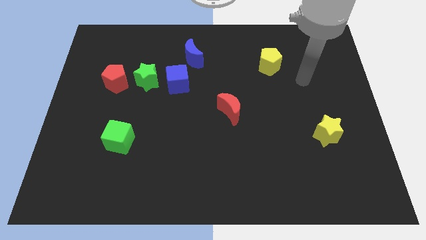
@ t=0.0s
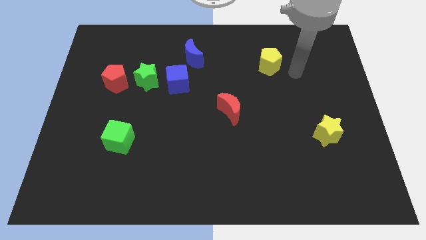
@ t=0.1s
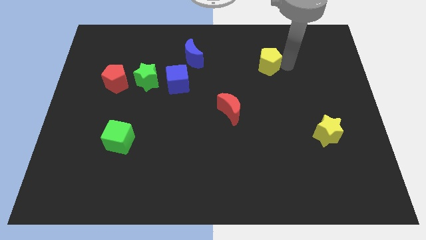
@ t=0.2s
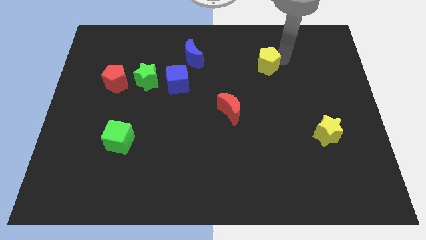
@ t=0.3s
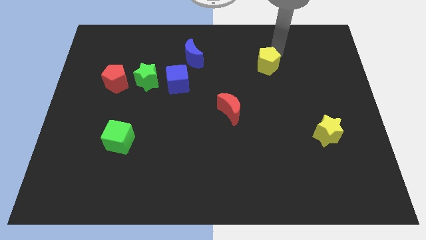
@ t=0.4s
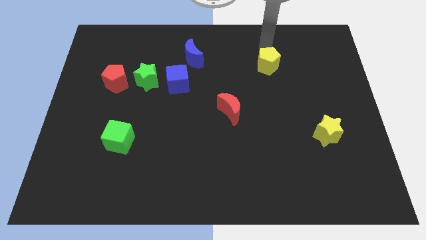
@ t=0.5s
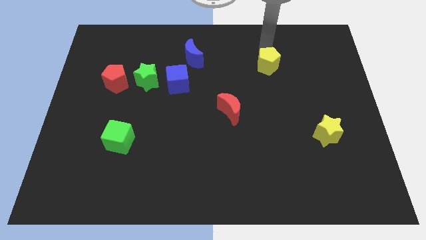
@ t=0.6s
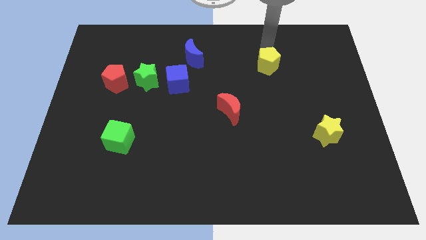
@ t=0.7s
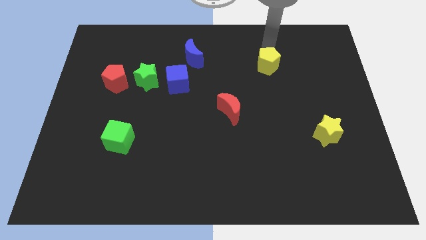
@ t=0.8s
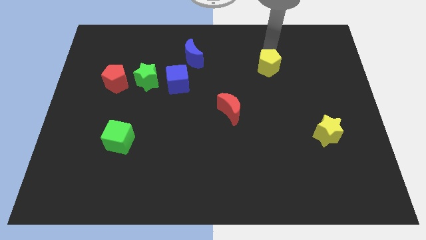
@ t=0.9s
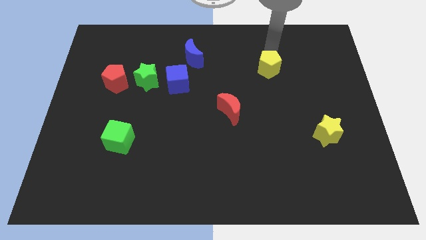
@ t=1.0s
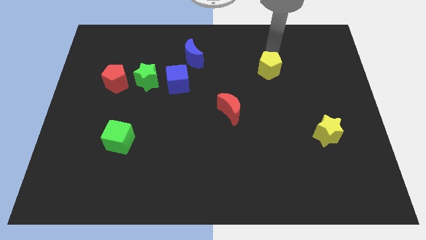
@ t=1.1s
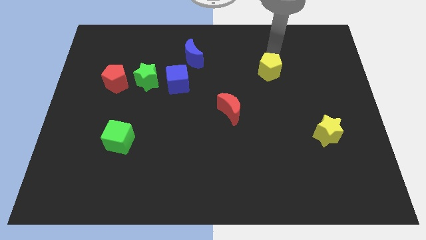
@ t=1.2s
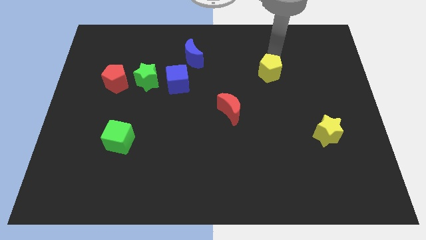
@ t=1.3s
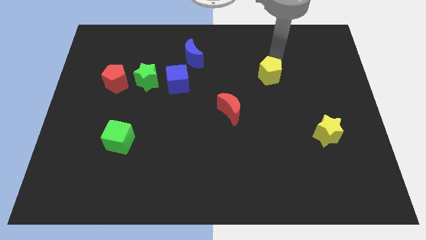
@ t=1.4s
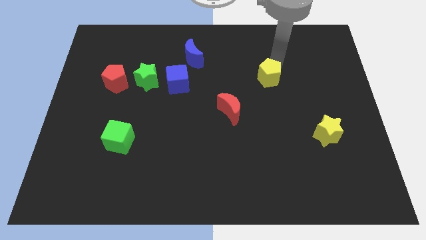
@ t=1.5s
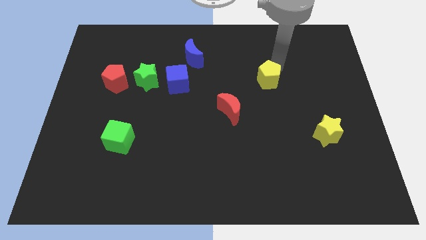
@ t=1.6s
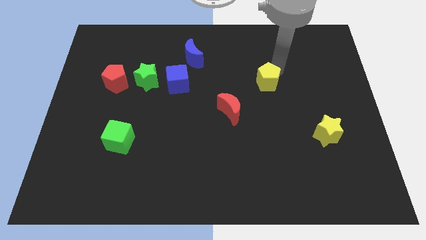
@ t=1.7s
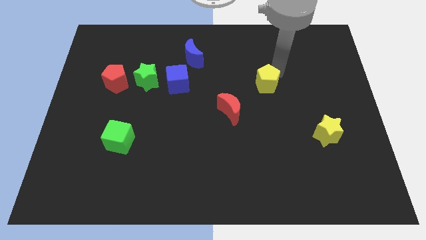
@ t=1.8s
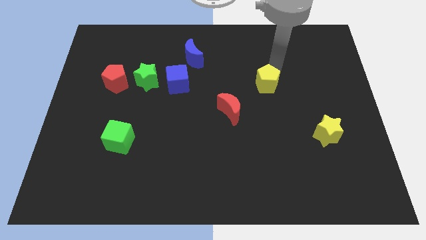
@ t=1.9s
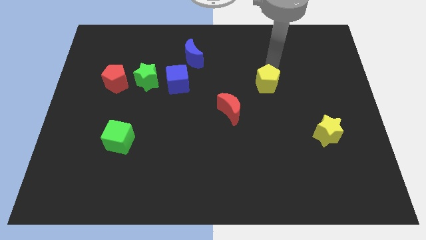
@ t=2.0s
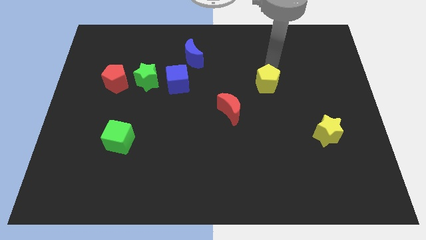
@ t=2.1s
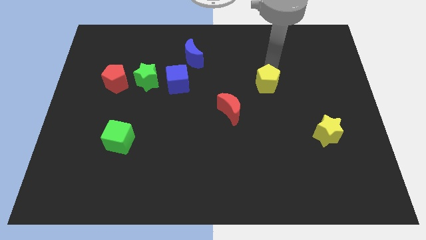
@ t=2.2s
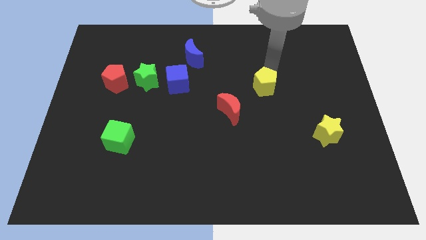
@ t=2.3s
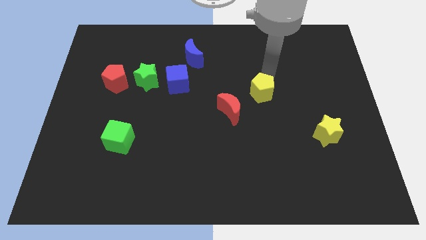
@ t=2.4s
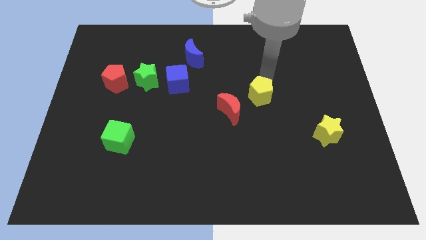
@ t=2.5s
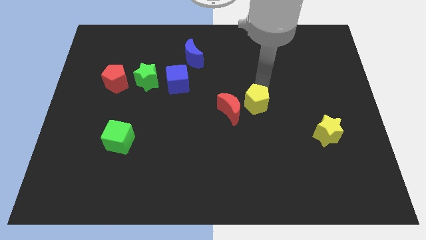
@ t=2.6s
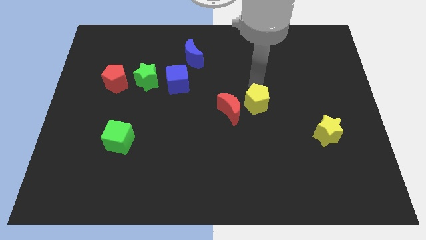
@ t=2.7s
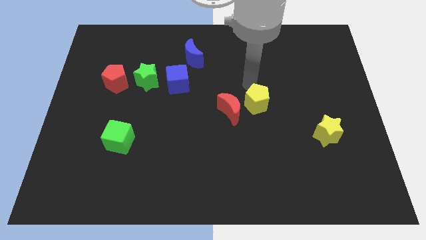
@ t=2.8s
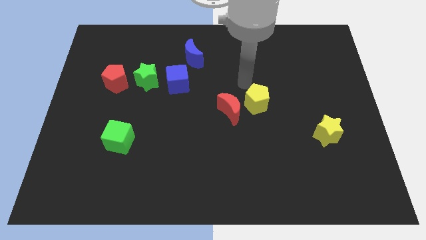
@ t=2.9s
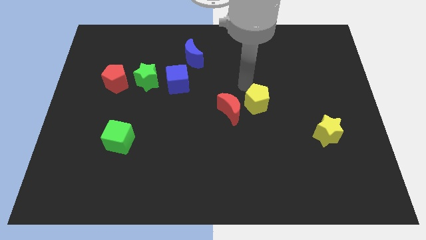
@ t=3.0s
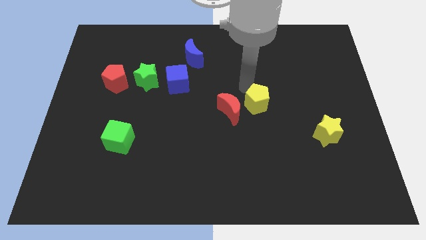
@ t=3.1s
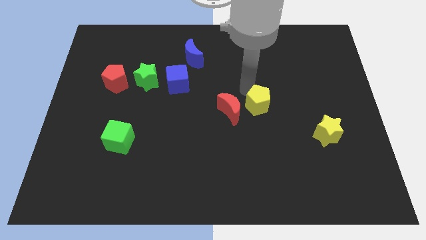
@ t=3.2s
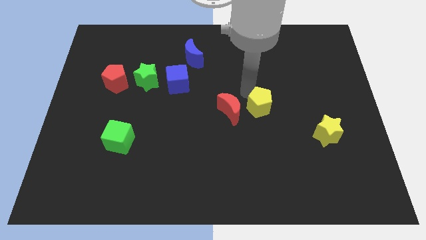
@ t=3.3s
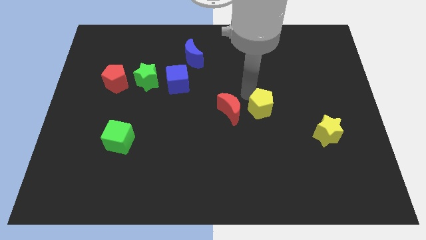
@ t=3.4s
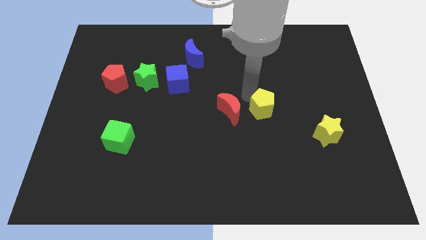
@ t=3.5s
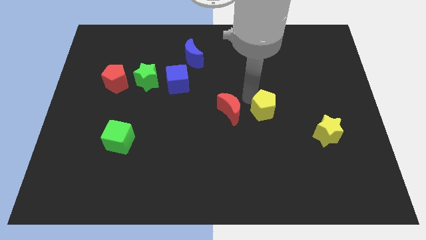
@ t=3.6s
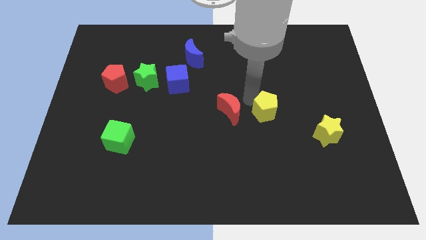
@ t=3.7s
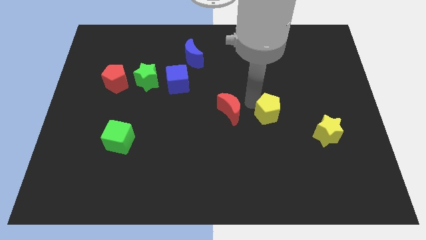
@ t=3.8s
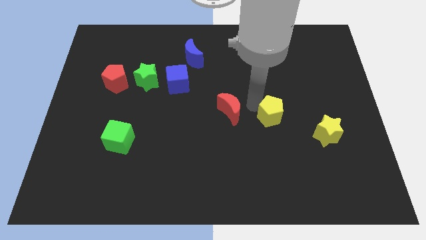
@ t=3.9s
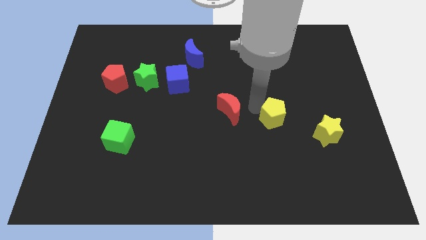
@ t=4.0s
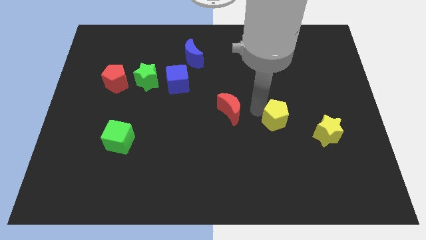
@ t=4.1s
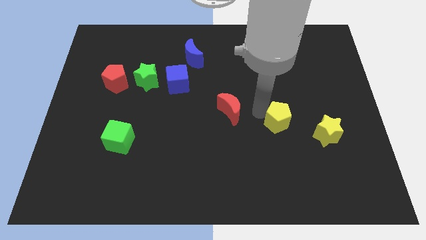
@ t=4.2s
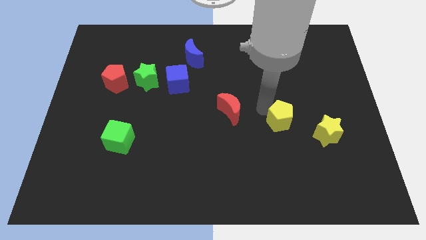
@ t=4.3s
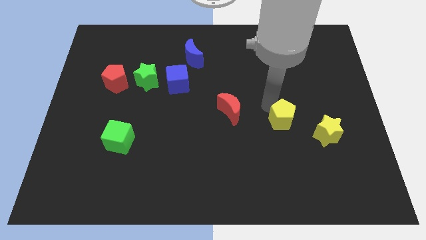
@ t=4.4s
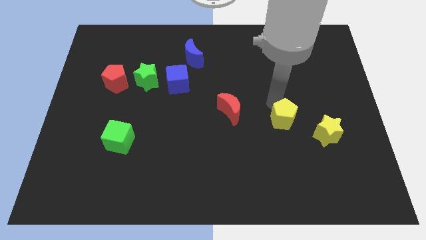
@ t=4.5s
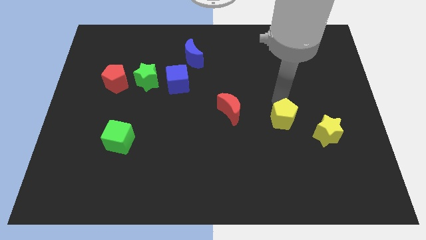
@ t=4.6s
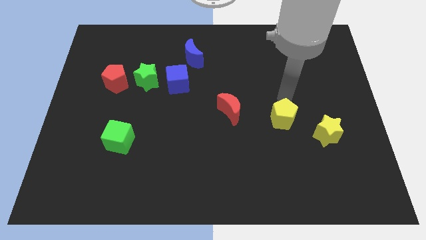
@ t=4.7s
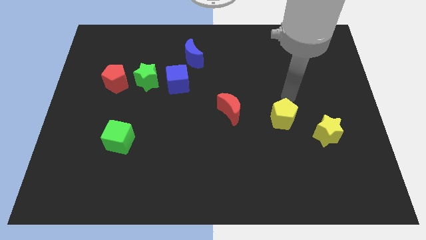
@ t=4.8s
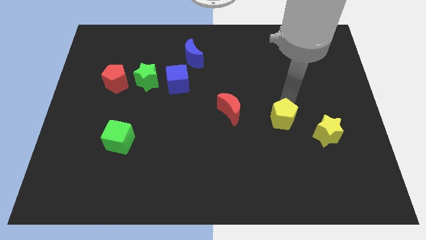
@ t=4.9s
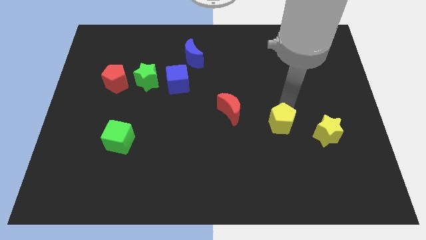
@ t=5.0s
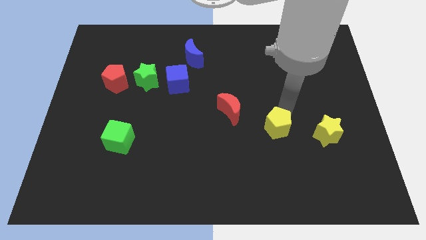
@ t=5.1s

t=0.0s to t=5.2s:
push the yellow pentagon down

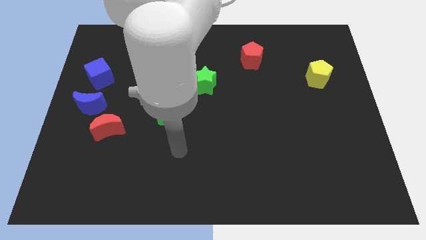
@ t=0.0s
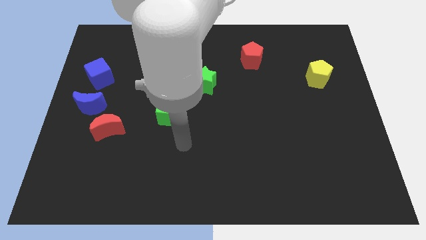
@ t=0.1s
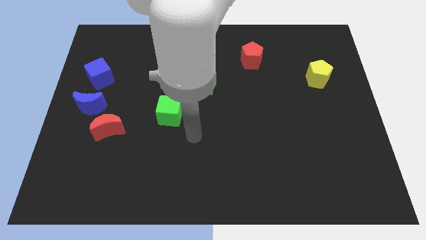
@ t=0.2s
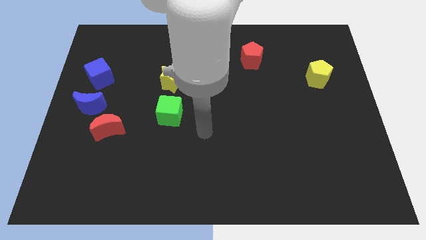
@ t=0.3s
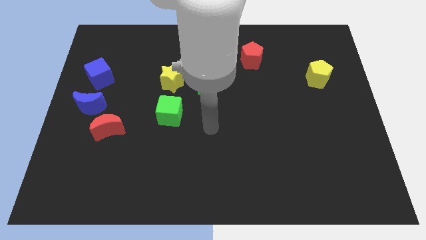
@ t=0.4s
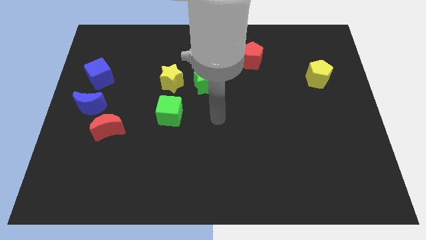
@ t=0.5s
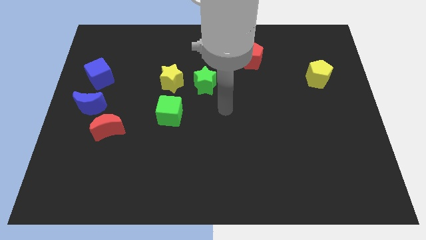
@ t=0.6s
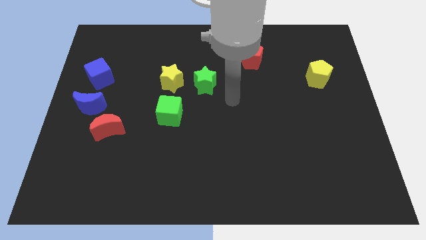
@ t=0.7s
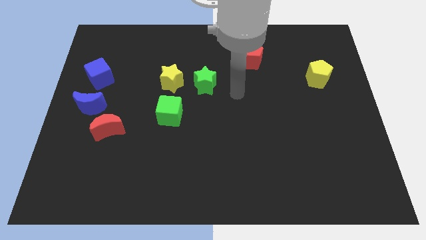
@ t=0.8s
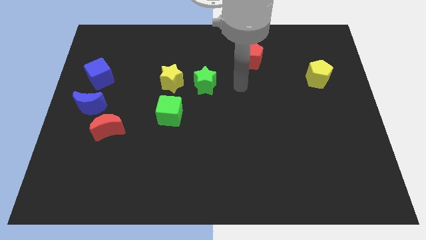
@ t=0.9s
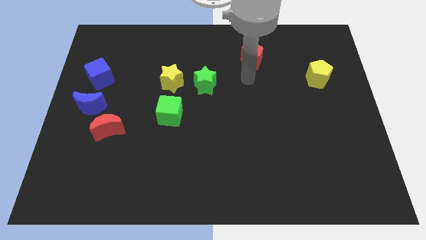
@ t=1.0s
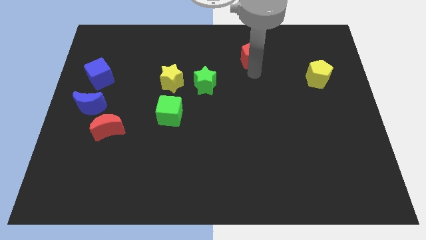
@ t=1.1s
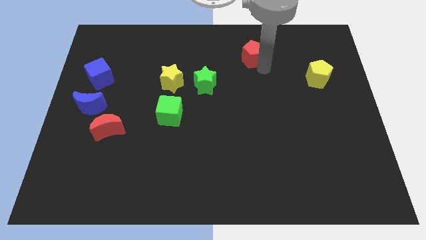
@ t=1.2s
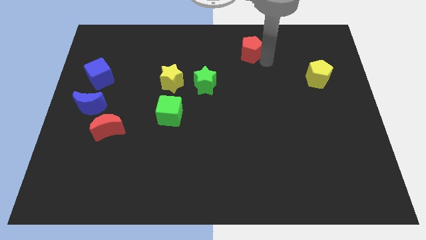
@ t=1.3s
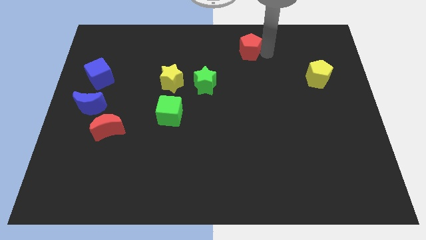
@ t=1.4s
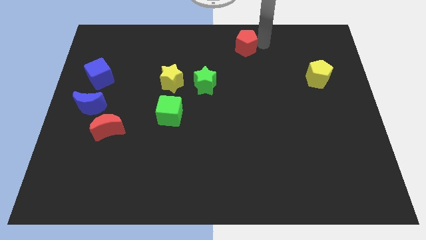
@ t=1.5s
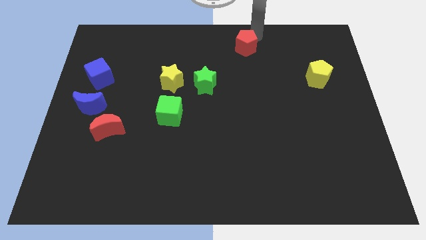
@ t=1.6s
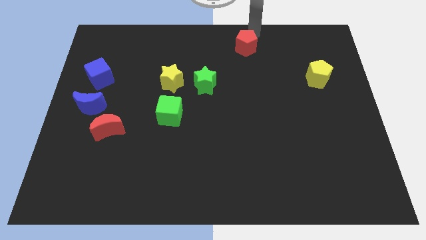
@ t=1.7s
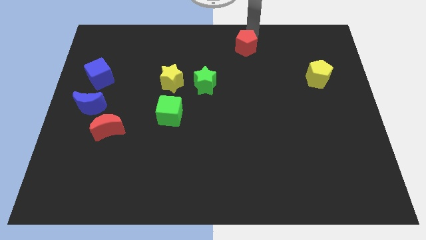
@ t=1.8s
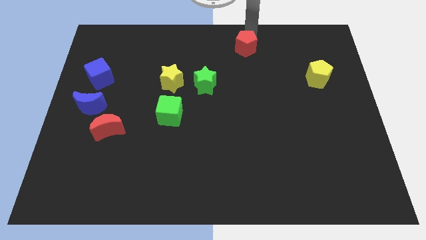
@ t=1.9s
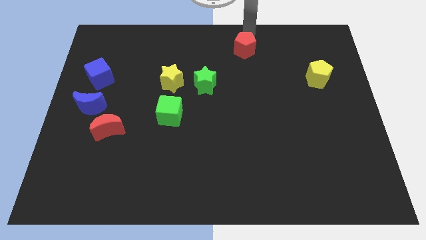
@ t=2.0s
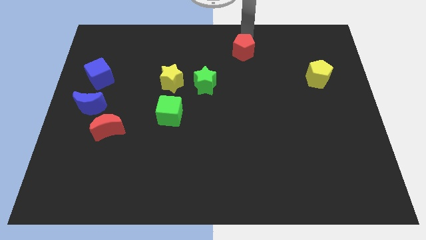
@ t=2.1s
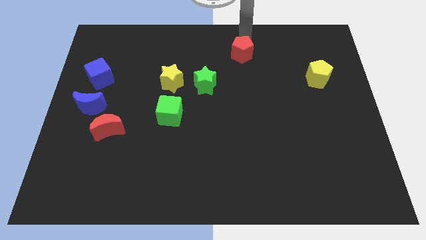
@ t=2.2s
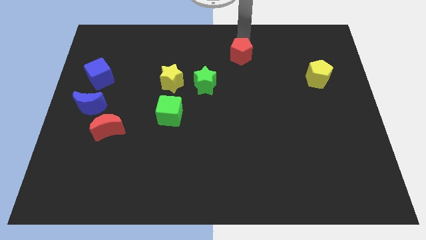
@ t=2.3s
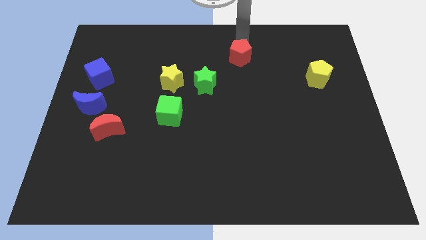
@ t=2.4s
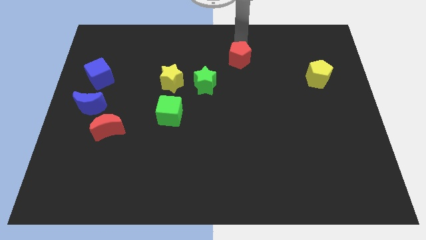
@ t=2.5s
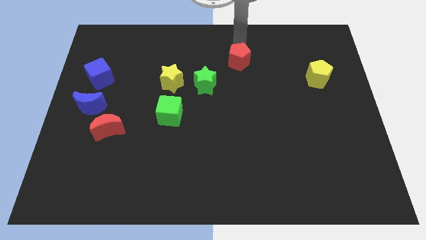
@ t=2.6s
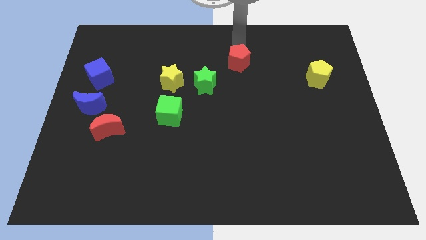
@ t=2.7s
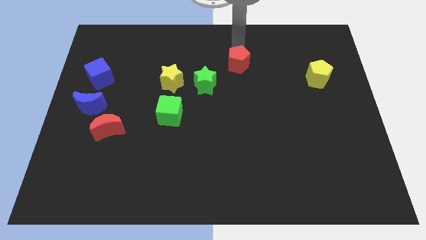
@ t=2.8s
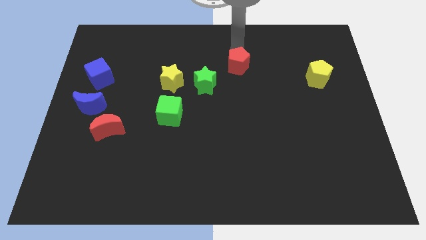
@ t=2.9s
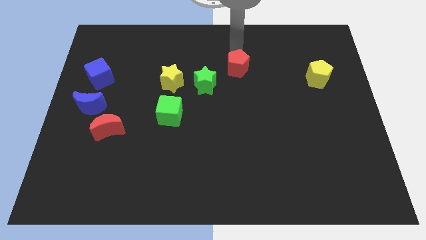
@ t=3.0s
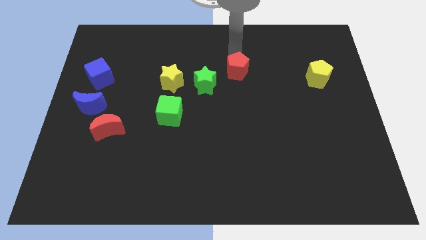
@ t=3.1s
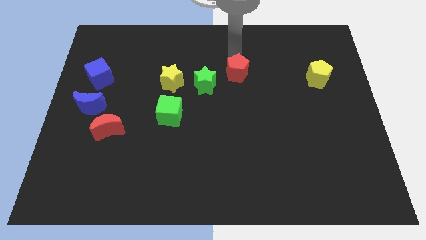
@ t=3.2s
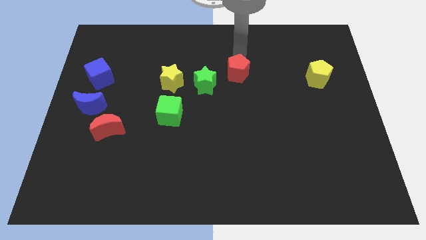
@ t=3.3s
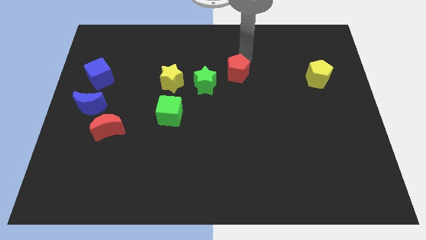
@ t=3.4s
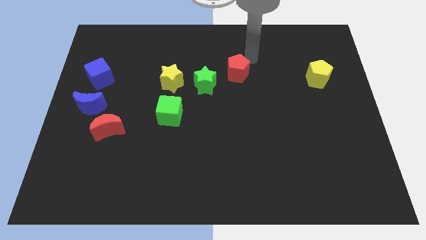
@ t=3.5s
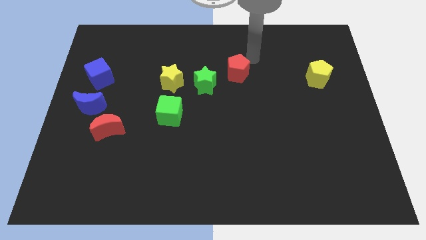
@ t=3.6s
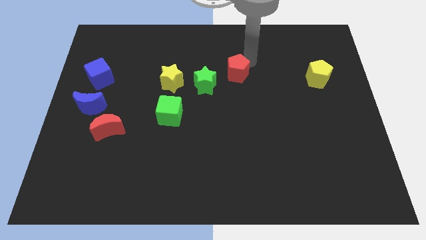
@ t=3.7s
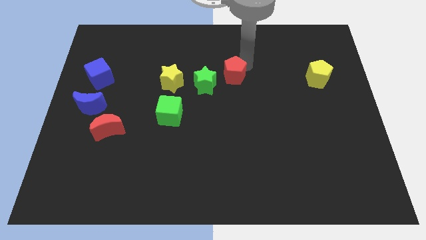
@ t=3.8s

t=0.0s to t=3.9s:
move the red pentagon downwards and to the left diagonally a little bit
